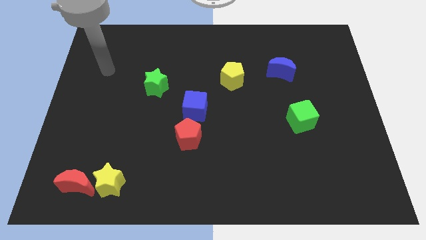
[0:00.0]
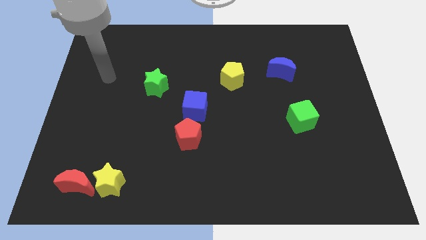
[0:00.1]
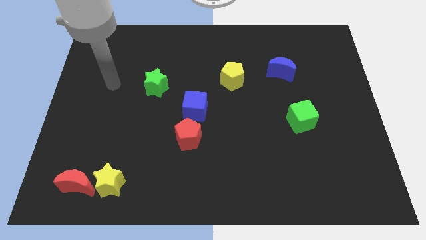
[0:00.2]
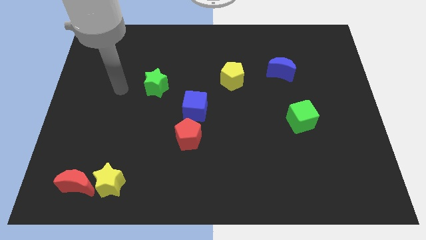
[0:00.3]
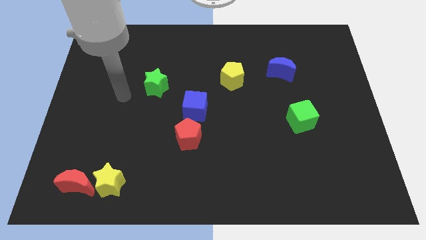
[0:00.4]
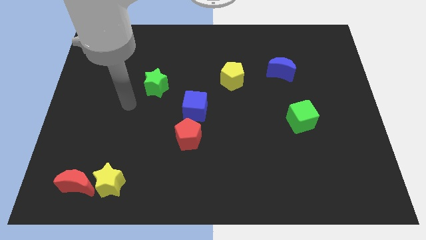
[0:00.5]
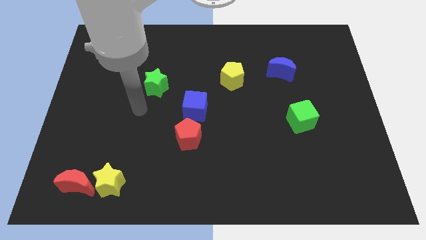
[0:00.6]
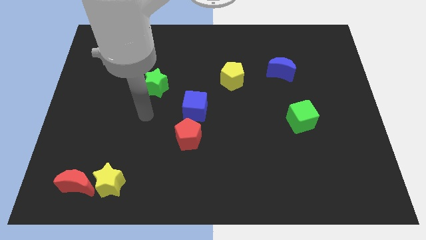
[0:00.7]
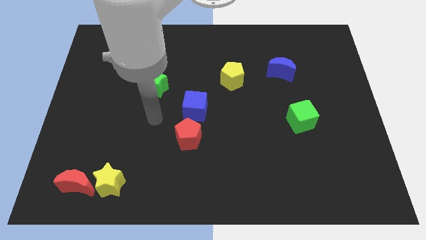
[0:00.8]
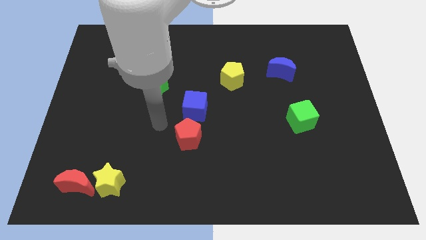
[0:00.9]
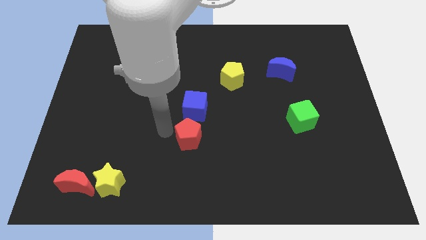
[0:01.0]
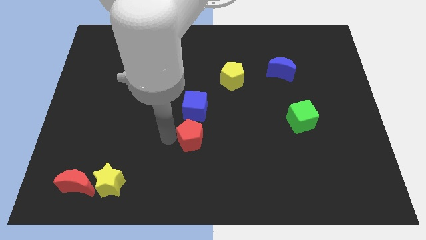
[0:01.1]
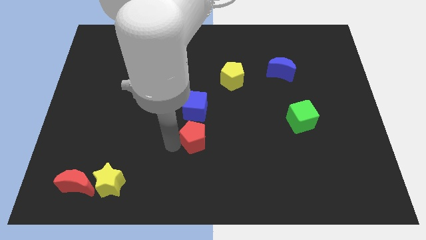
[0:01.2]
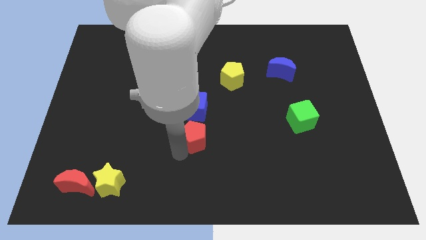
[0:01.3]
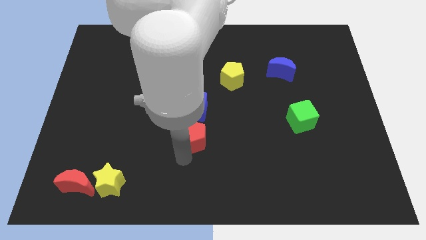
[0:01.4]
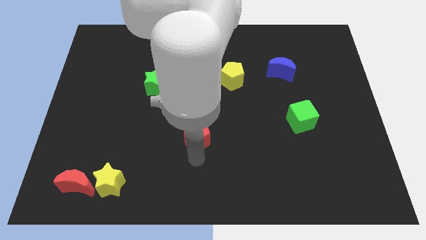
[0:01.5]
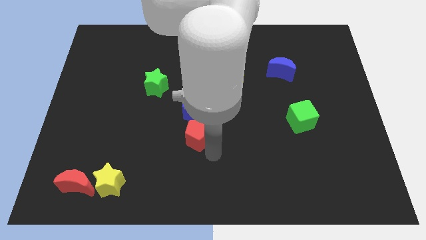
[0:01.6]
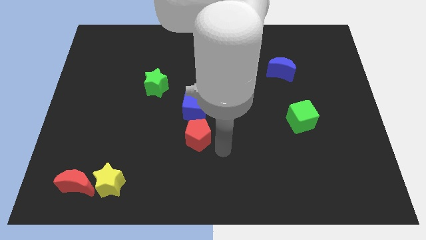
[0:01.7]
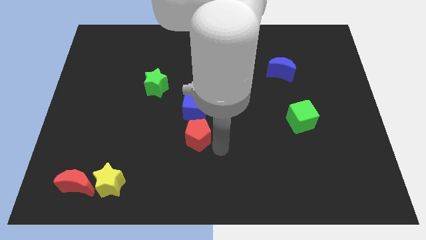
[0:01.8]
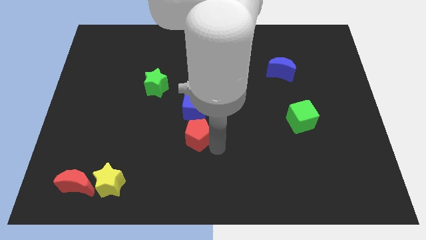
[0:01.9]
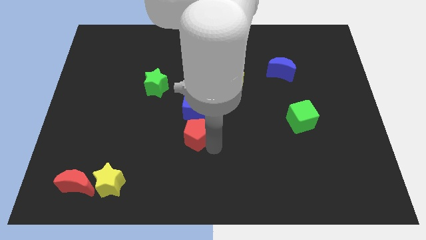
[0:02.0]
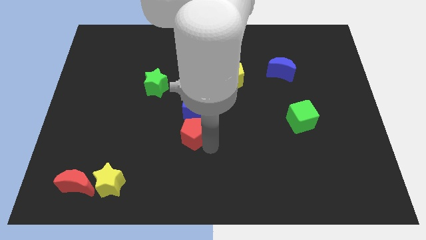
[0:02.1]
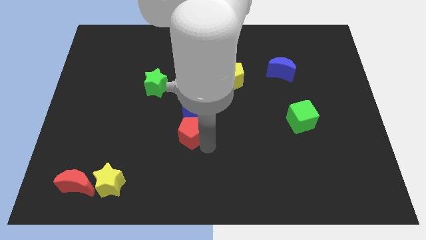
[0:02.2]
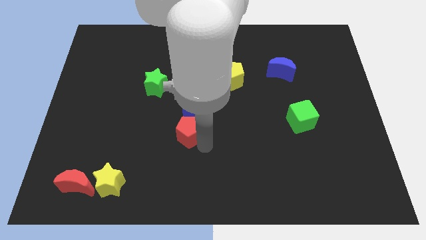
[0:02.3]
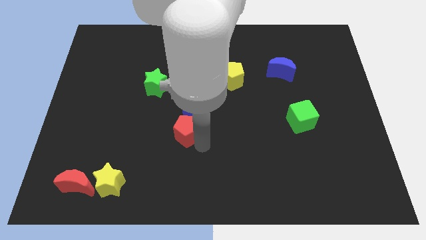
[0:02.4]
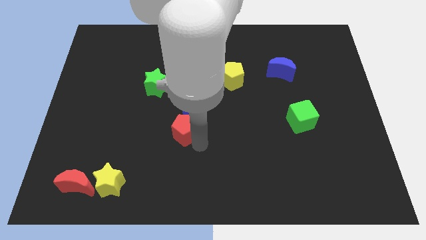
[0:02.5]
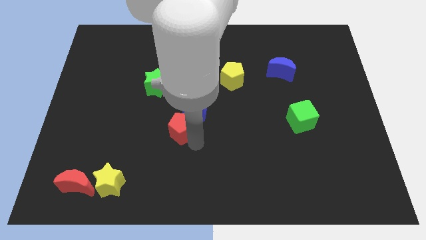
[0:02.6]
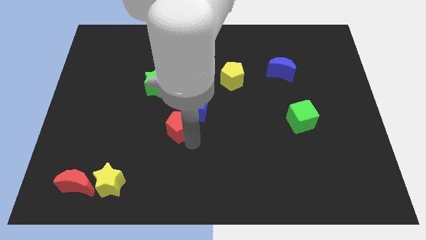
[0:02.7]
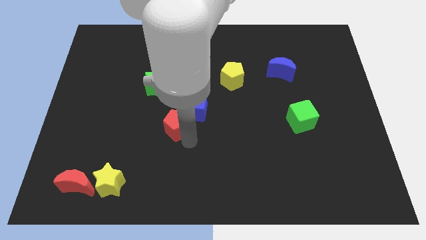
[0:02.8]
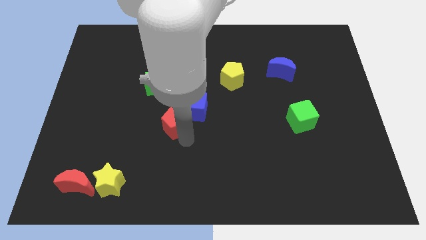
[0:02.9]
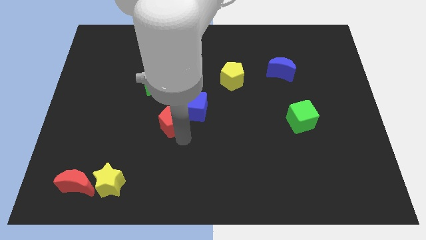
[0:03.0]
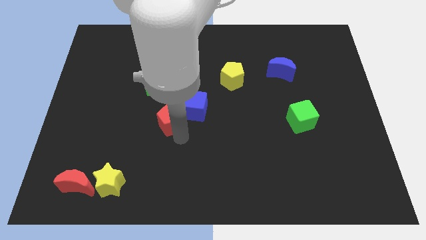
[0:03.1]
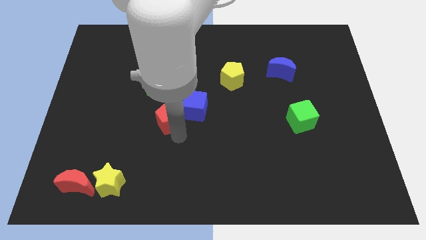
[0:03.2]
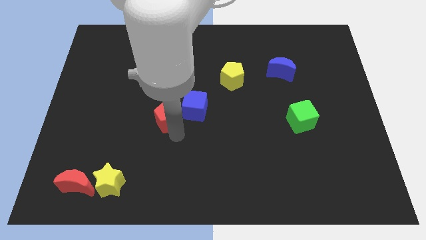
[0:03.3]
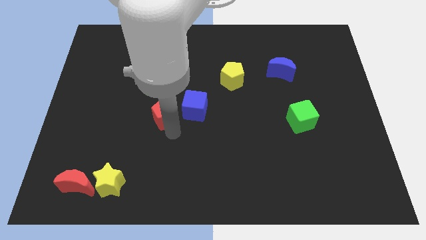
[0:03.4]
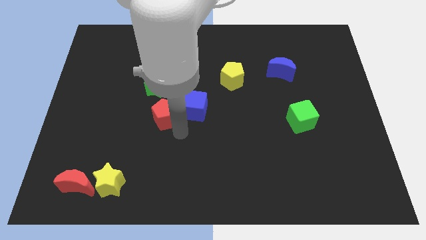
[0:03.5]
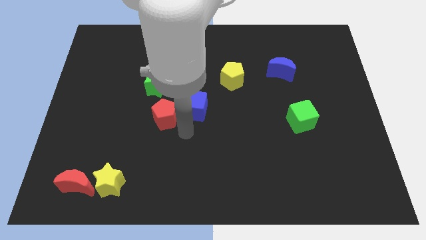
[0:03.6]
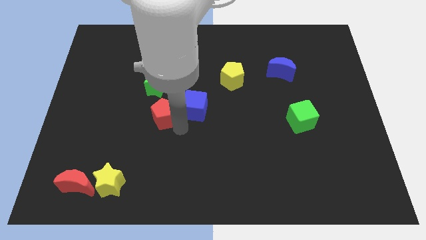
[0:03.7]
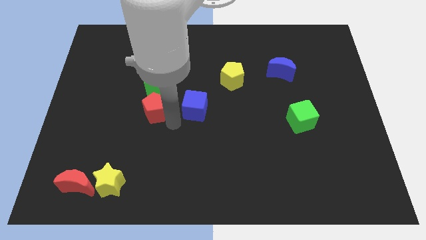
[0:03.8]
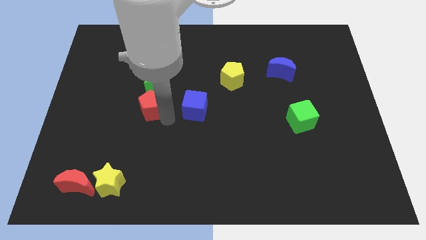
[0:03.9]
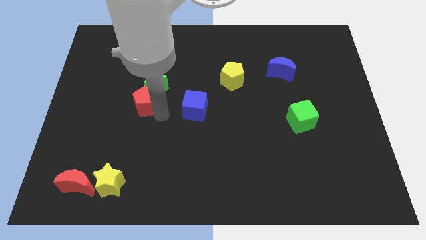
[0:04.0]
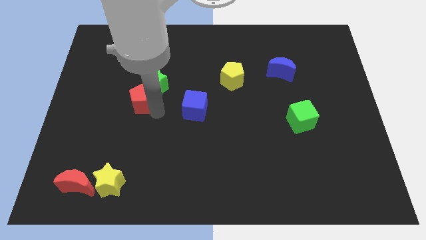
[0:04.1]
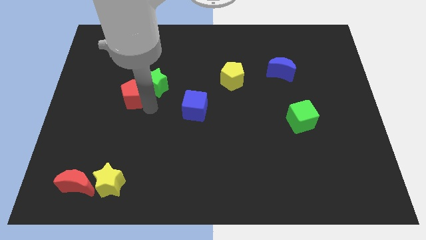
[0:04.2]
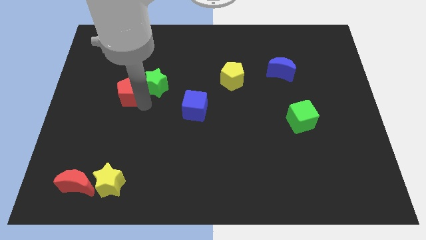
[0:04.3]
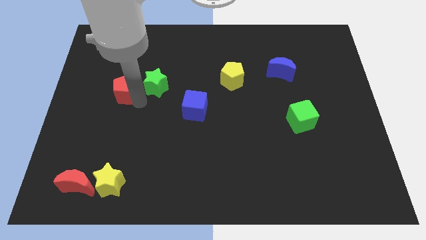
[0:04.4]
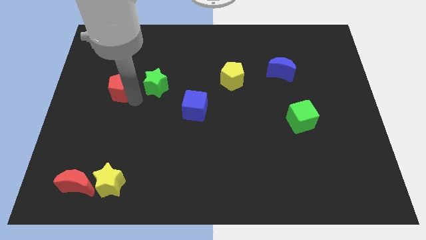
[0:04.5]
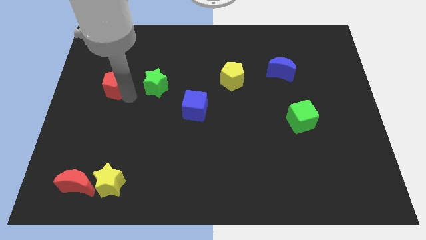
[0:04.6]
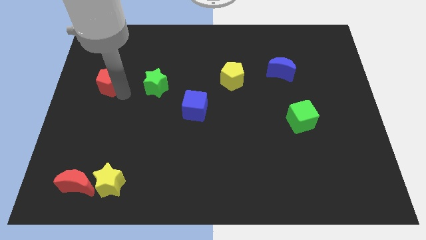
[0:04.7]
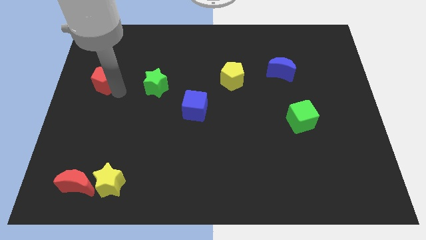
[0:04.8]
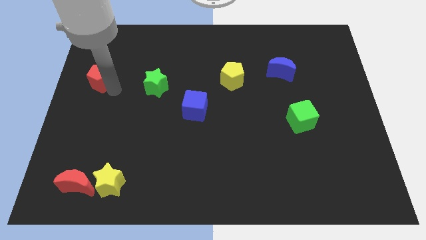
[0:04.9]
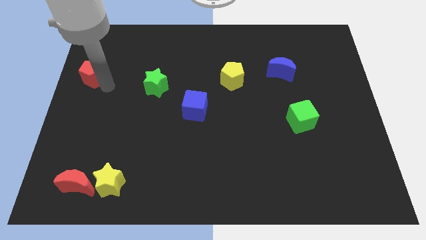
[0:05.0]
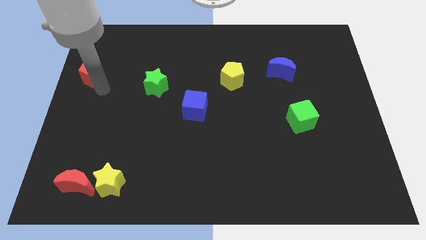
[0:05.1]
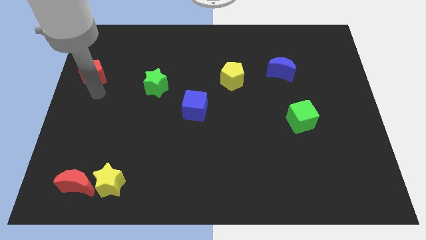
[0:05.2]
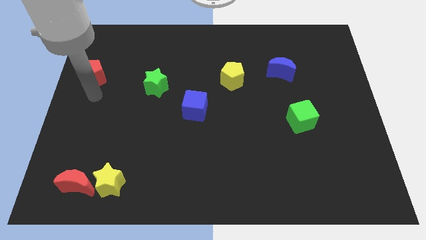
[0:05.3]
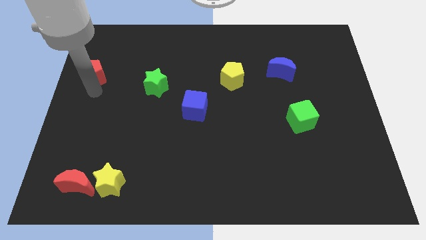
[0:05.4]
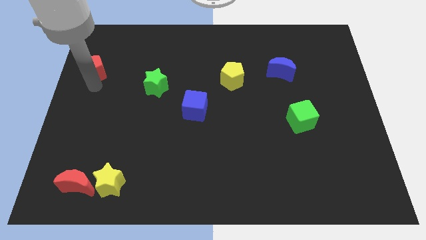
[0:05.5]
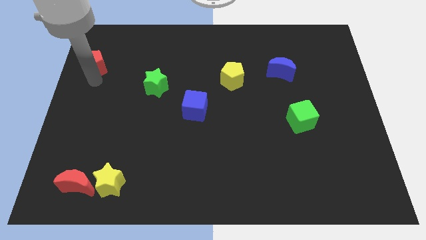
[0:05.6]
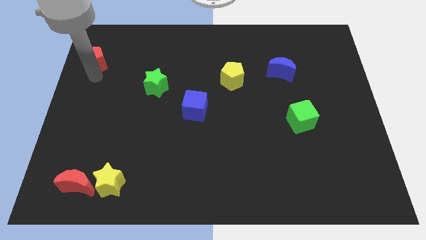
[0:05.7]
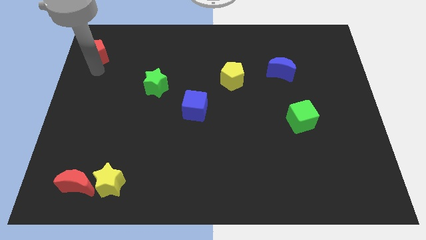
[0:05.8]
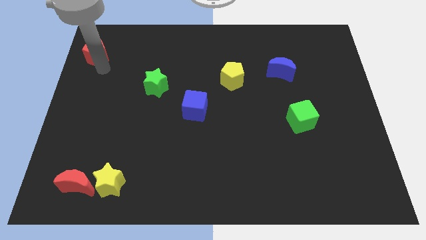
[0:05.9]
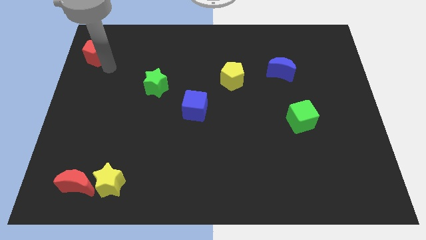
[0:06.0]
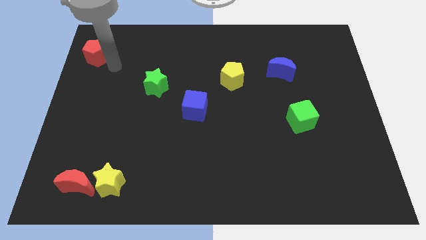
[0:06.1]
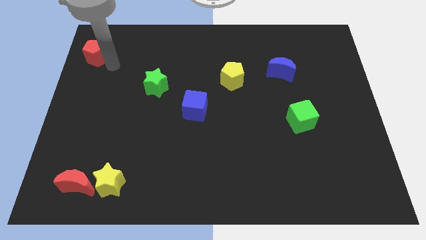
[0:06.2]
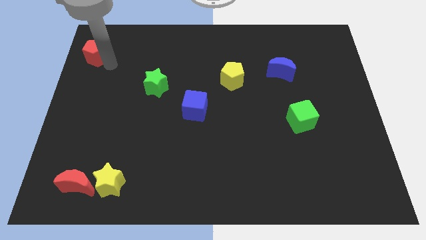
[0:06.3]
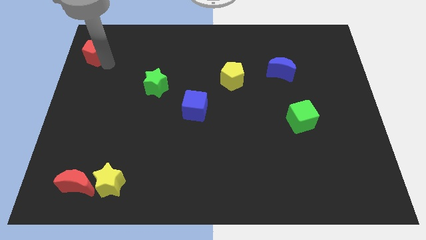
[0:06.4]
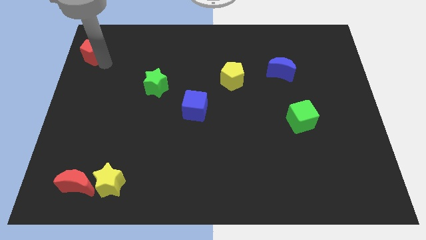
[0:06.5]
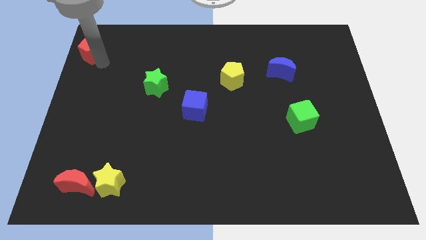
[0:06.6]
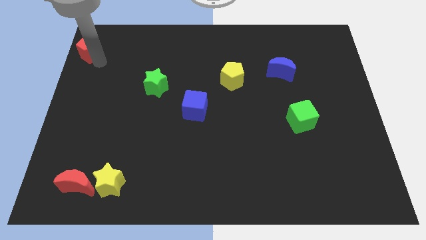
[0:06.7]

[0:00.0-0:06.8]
move the red pentagon to the top left

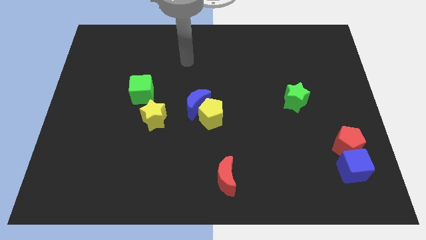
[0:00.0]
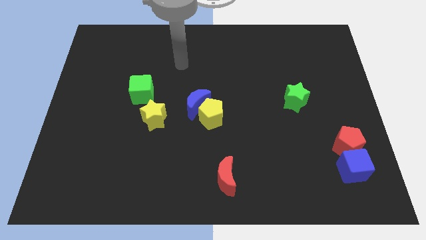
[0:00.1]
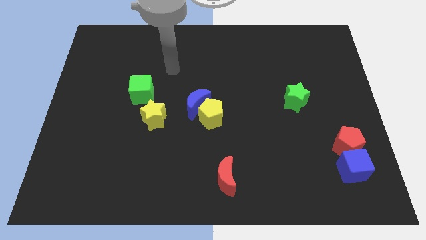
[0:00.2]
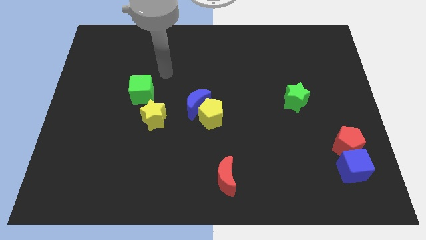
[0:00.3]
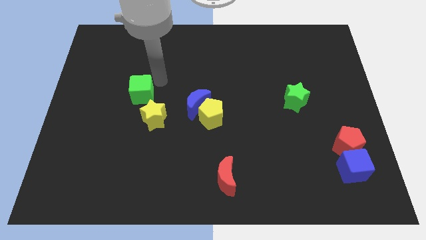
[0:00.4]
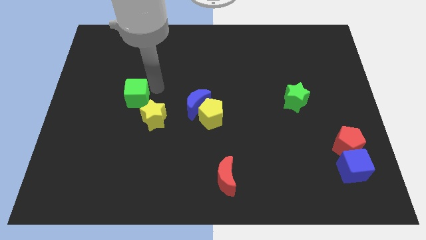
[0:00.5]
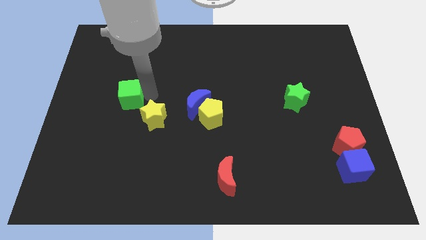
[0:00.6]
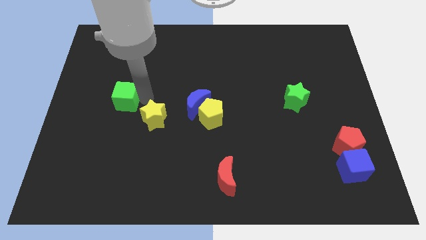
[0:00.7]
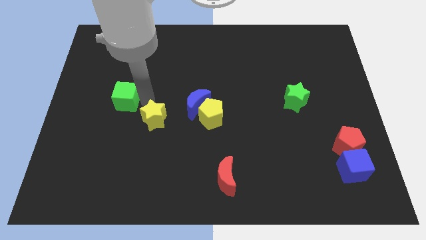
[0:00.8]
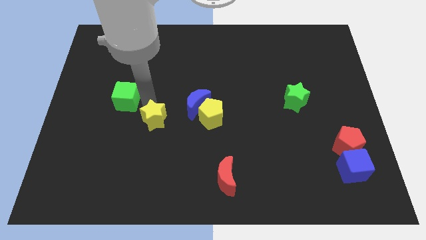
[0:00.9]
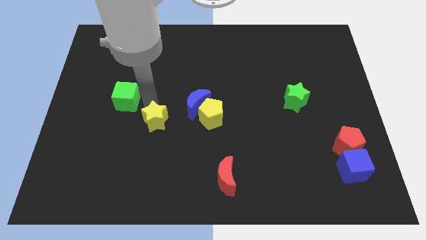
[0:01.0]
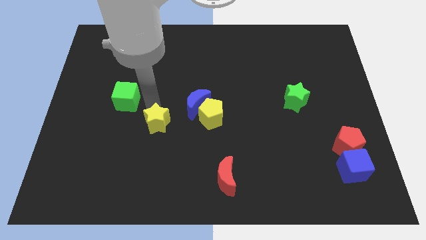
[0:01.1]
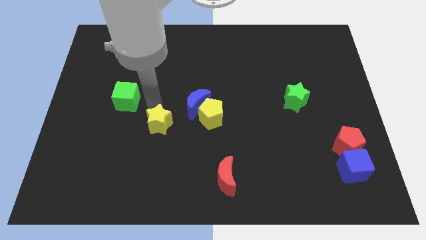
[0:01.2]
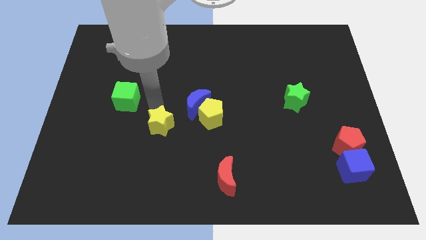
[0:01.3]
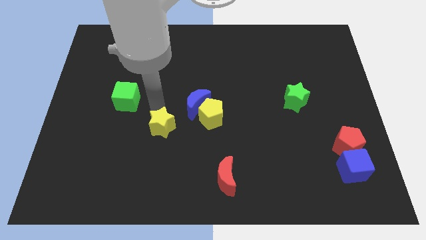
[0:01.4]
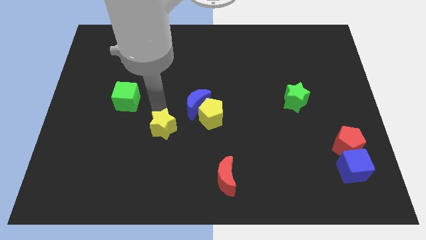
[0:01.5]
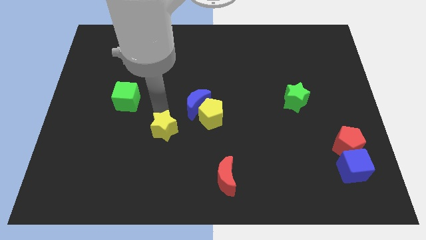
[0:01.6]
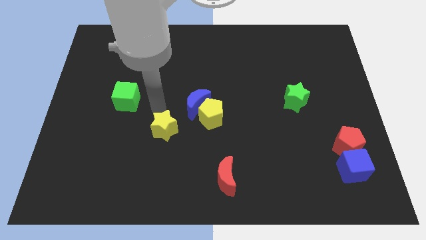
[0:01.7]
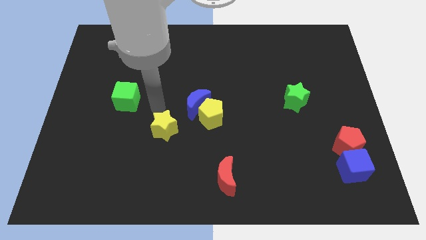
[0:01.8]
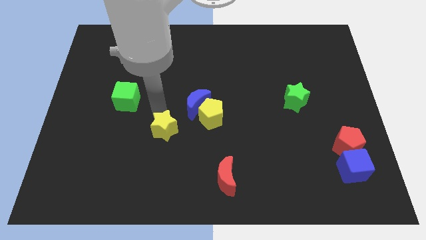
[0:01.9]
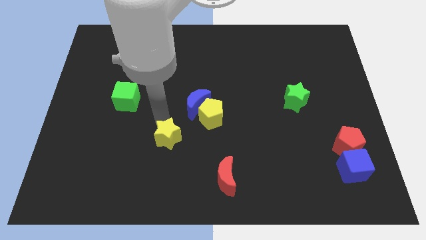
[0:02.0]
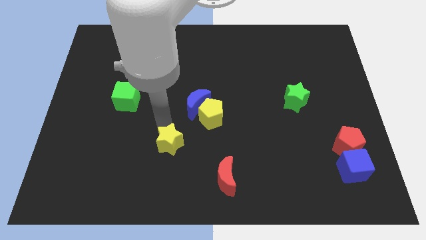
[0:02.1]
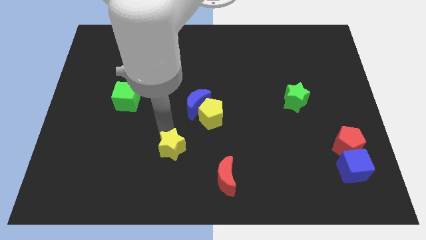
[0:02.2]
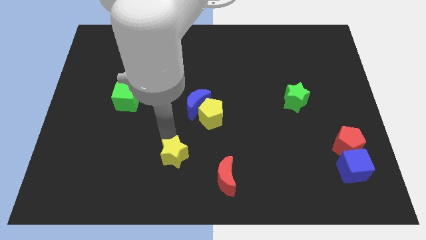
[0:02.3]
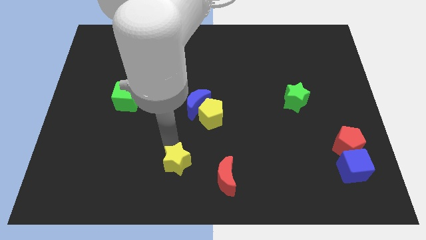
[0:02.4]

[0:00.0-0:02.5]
put the yellow star to the bottom
